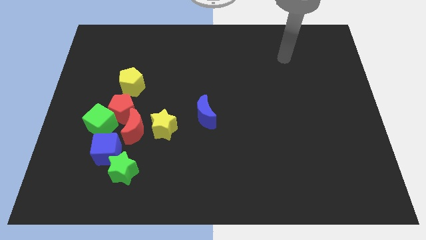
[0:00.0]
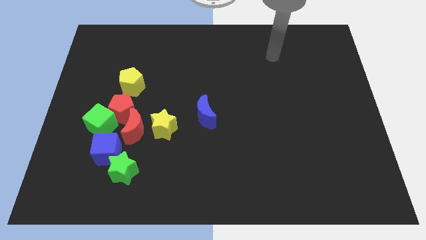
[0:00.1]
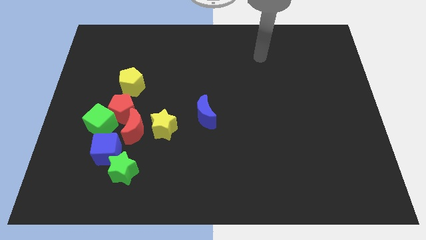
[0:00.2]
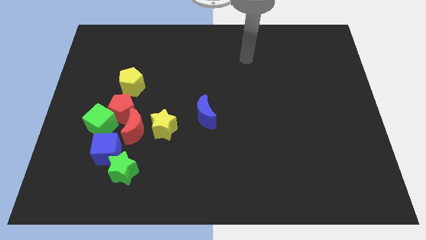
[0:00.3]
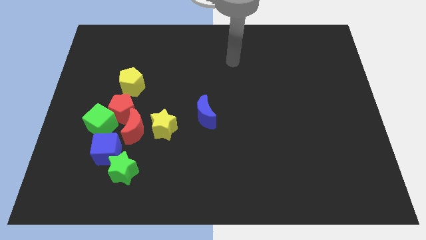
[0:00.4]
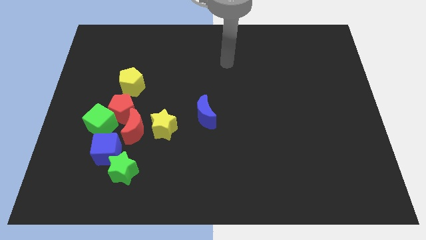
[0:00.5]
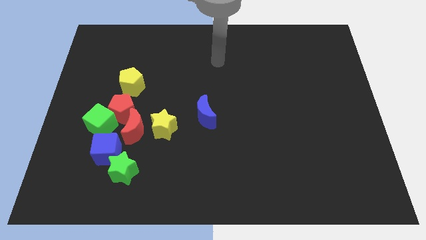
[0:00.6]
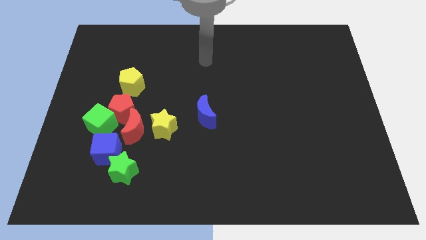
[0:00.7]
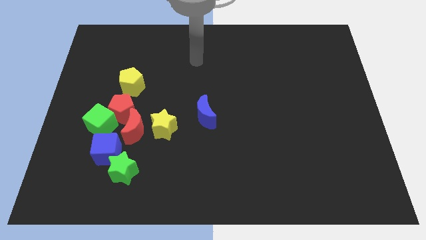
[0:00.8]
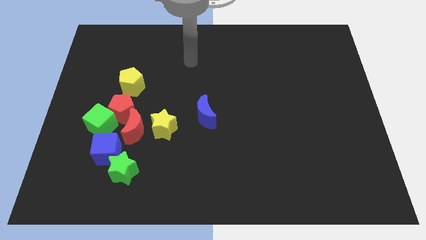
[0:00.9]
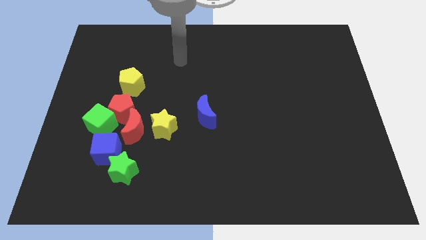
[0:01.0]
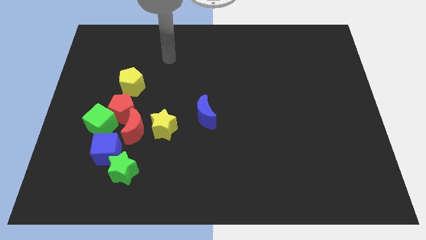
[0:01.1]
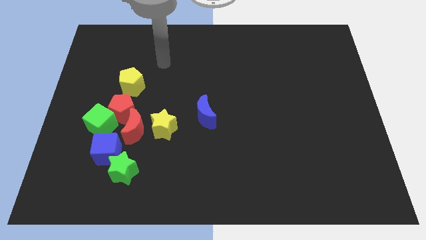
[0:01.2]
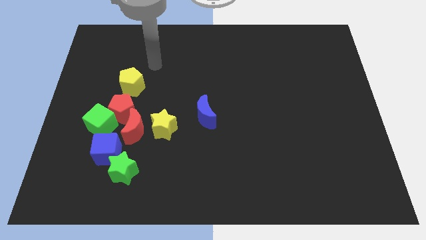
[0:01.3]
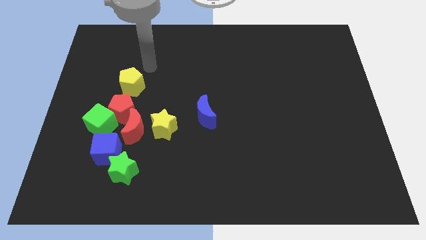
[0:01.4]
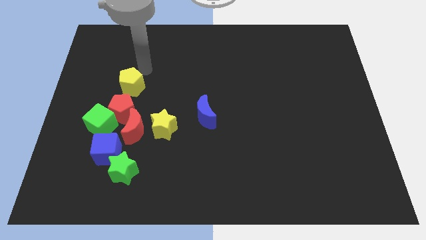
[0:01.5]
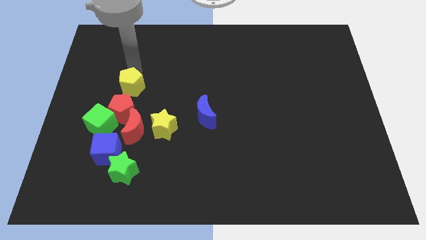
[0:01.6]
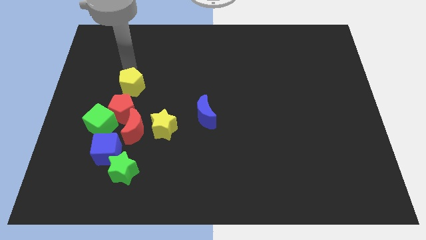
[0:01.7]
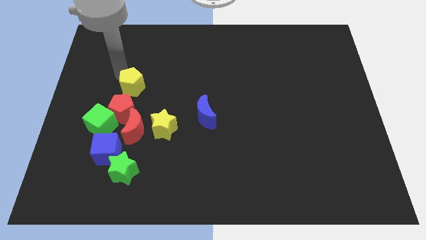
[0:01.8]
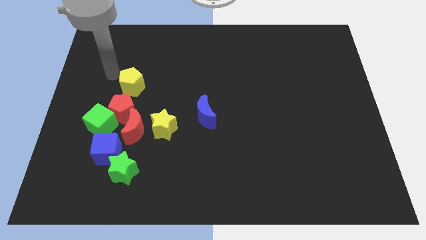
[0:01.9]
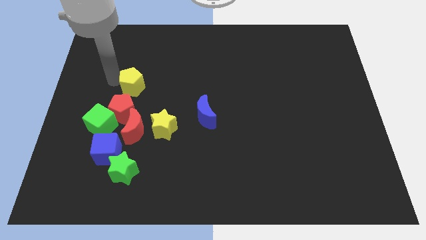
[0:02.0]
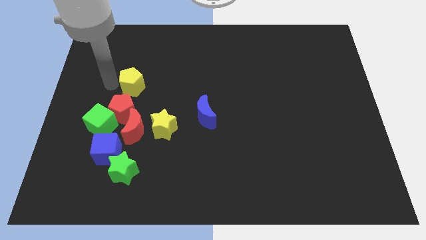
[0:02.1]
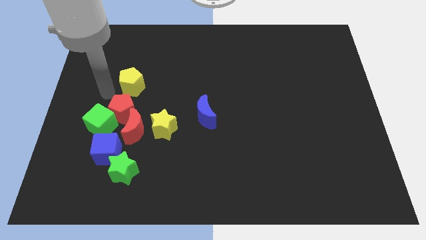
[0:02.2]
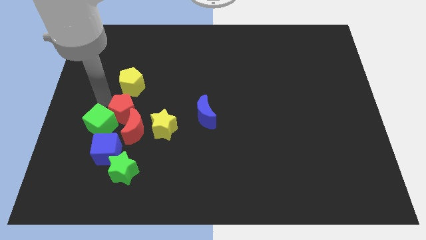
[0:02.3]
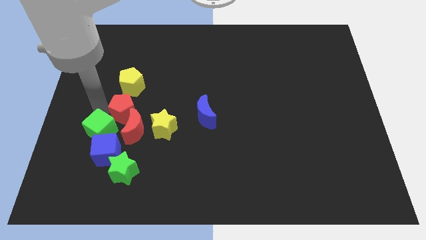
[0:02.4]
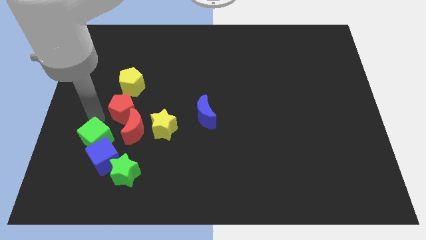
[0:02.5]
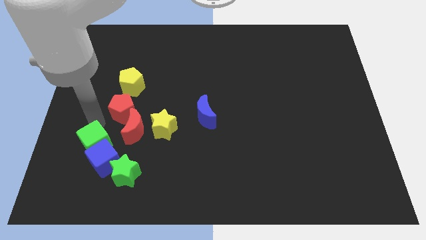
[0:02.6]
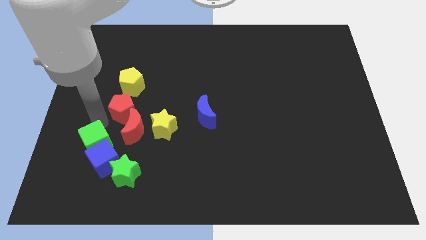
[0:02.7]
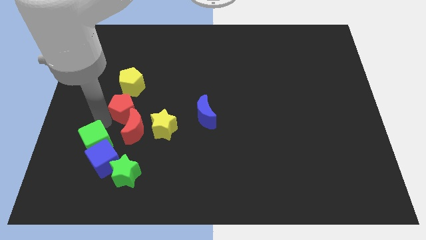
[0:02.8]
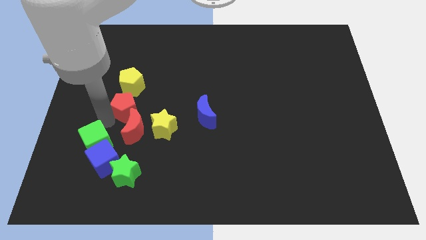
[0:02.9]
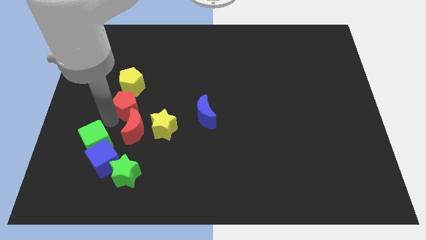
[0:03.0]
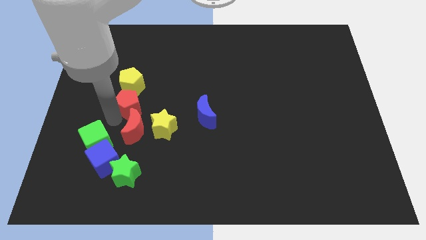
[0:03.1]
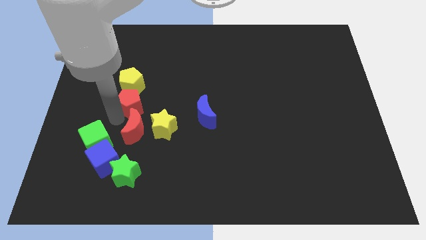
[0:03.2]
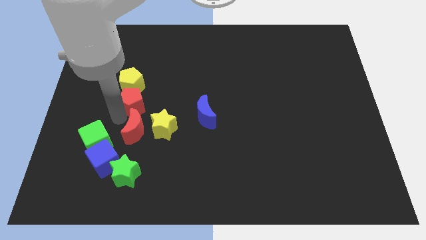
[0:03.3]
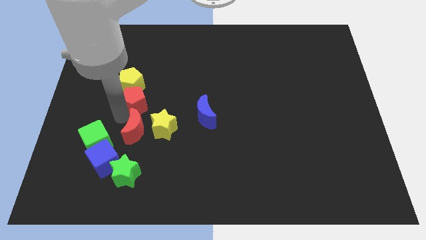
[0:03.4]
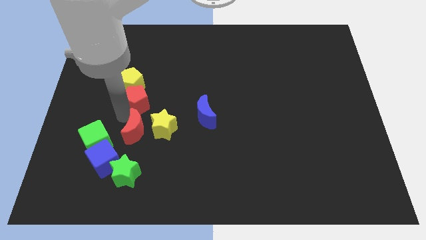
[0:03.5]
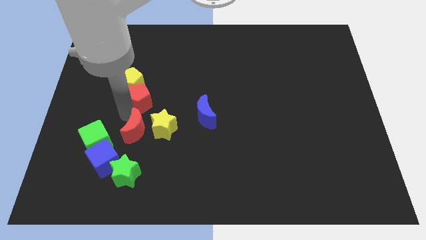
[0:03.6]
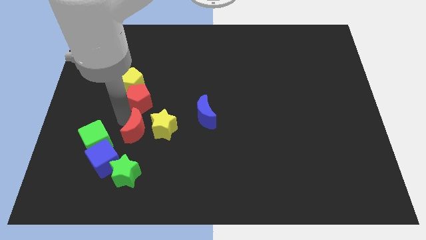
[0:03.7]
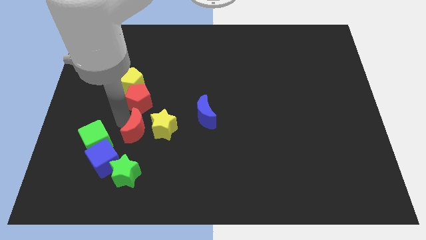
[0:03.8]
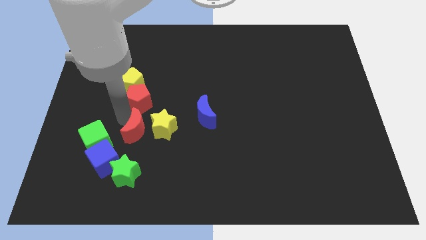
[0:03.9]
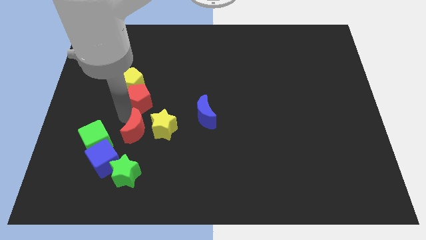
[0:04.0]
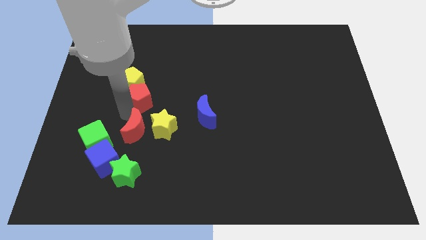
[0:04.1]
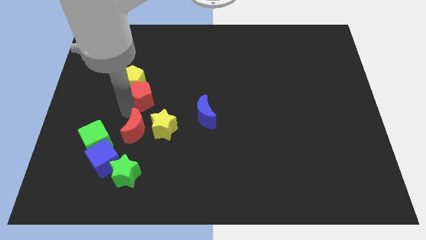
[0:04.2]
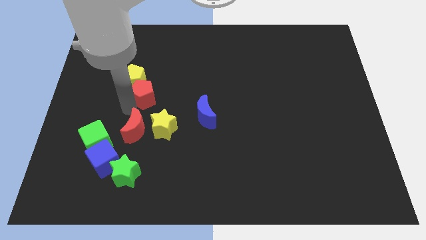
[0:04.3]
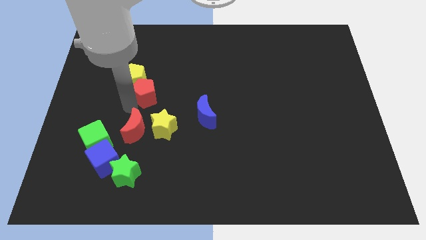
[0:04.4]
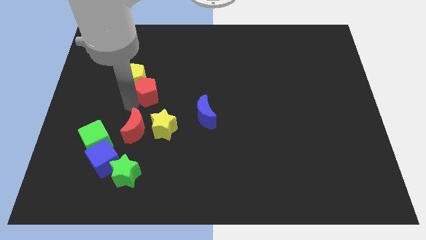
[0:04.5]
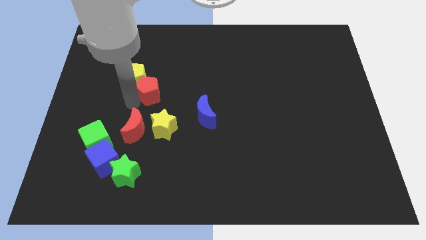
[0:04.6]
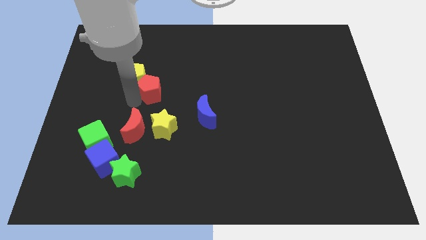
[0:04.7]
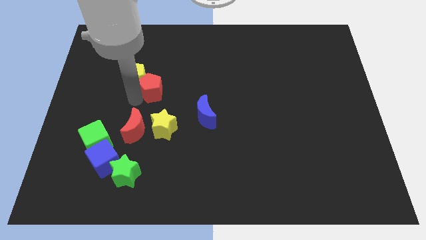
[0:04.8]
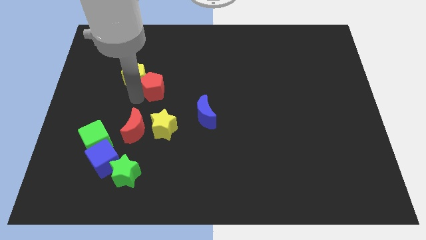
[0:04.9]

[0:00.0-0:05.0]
move the red pentagon away from the green cube, red moon, and yellow pentagon

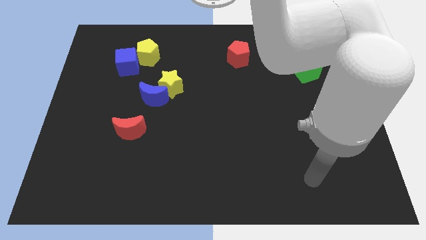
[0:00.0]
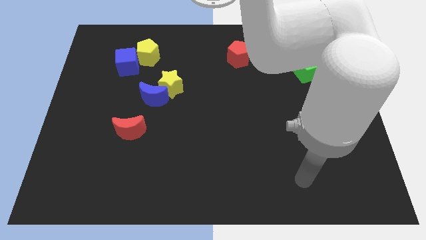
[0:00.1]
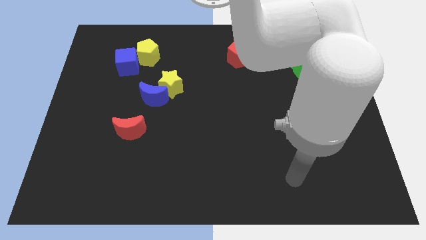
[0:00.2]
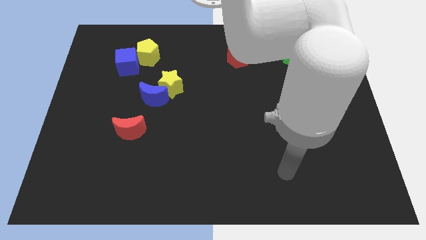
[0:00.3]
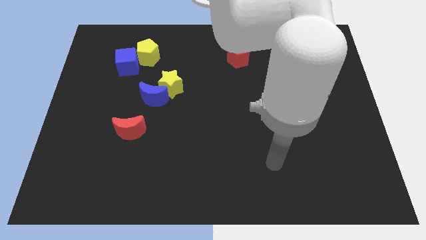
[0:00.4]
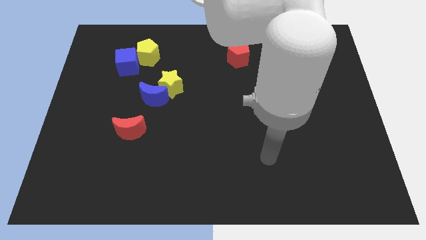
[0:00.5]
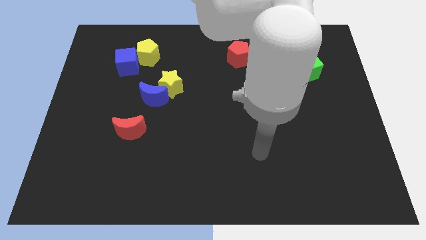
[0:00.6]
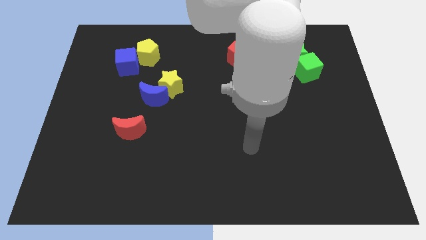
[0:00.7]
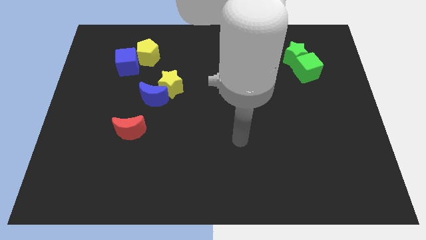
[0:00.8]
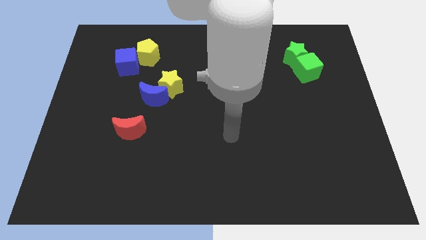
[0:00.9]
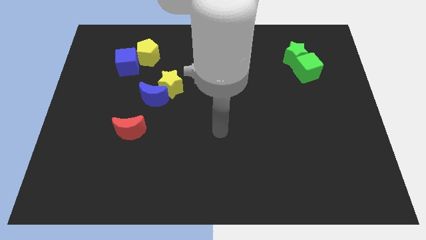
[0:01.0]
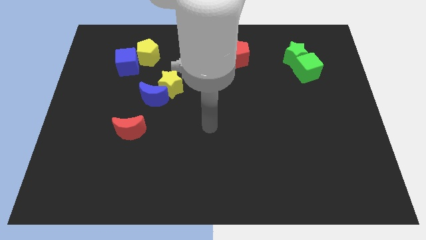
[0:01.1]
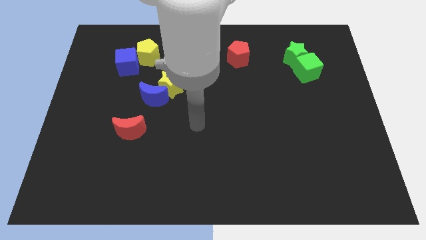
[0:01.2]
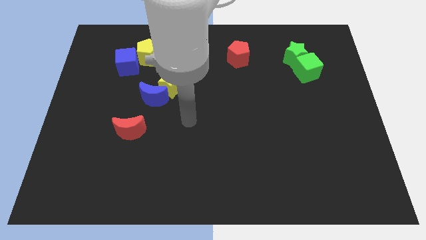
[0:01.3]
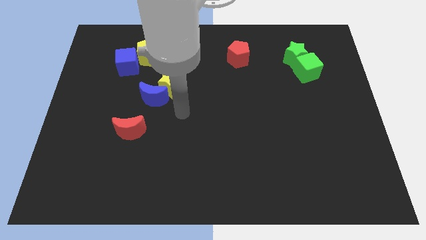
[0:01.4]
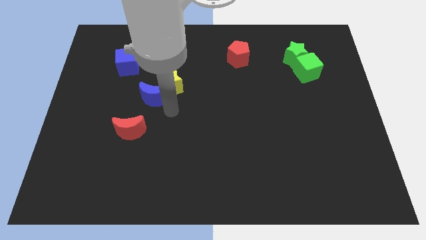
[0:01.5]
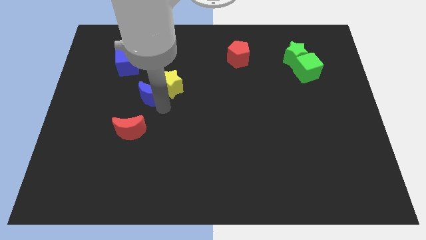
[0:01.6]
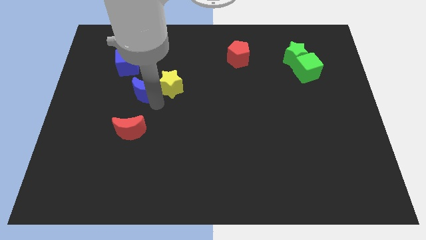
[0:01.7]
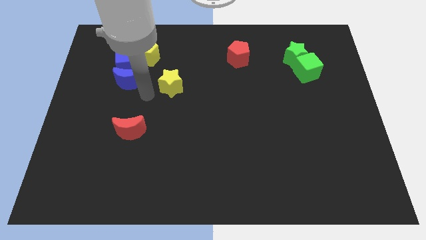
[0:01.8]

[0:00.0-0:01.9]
move the yellow star away from the blue moon

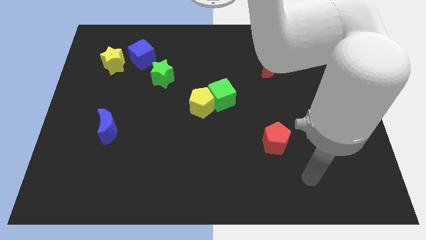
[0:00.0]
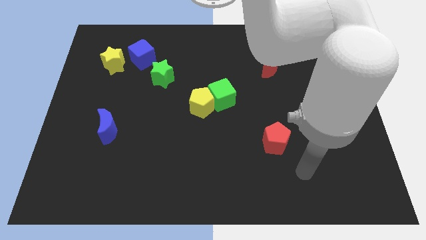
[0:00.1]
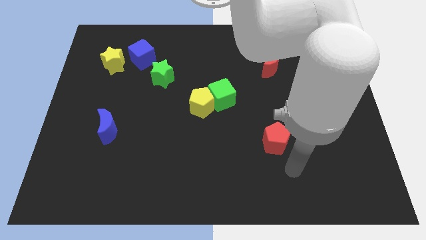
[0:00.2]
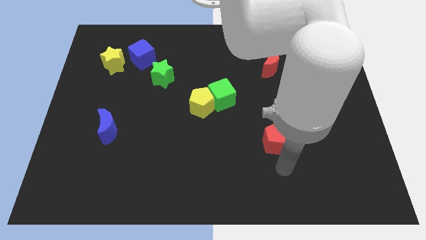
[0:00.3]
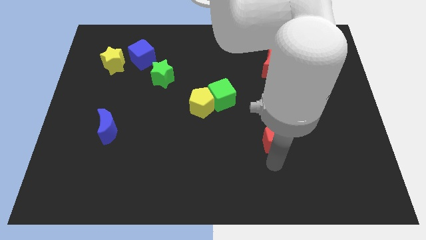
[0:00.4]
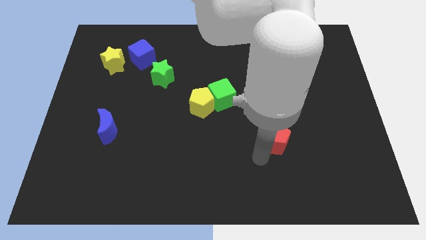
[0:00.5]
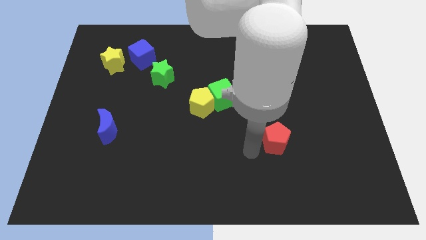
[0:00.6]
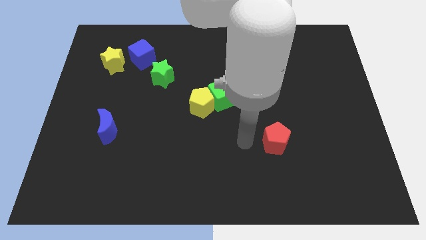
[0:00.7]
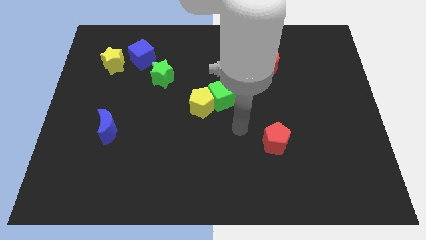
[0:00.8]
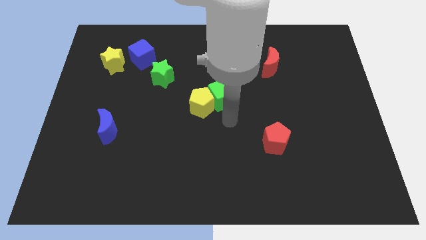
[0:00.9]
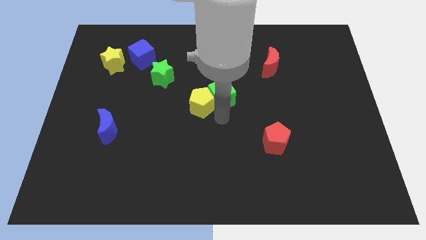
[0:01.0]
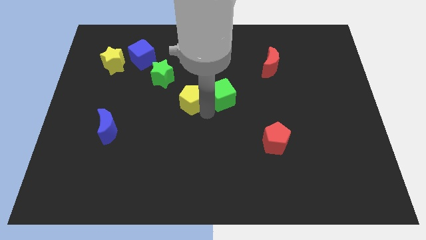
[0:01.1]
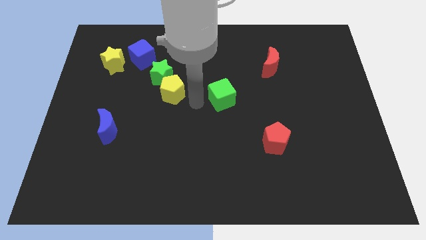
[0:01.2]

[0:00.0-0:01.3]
separate the green cube from the yellow pentagon

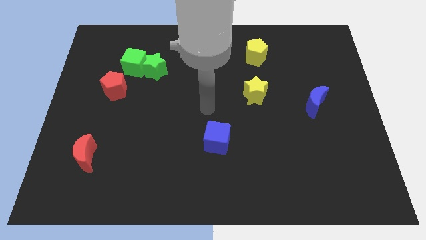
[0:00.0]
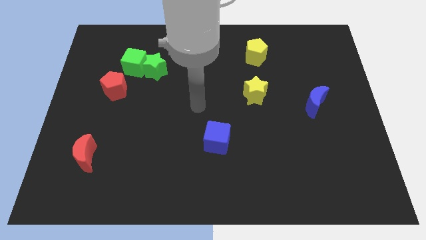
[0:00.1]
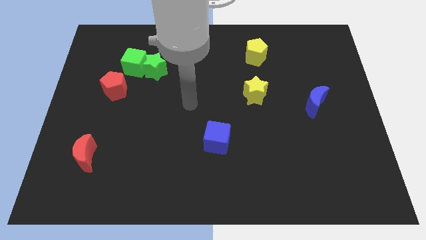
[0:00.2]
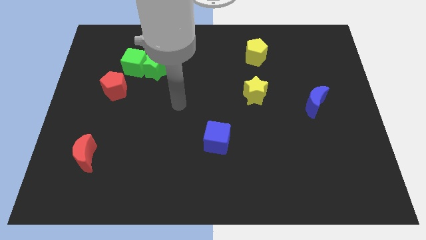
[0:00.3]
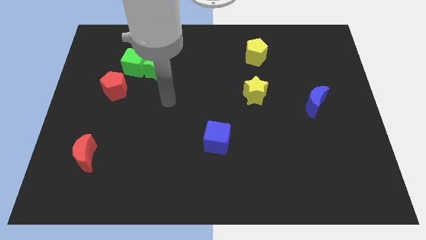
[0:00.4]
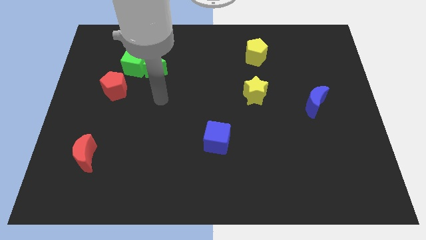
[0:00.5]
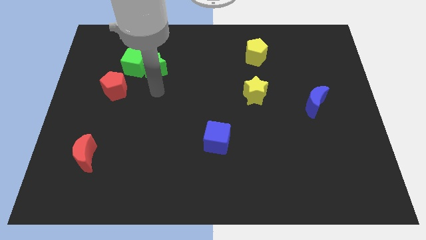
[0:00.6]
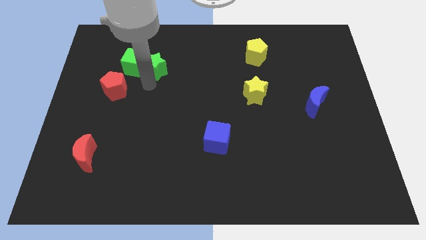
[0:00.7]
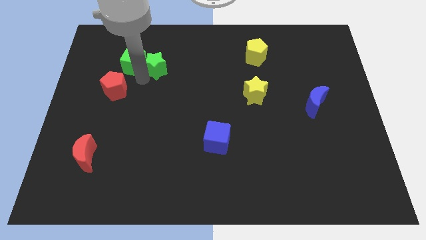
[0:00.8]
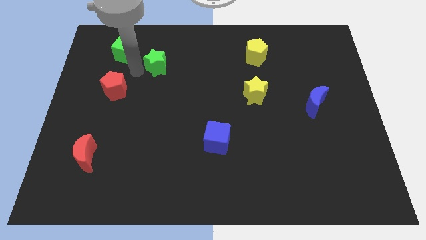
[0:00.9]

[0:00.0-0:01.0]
pull the green star apart from the green cube

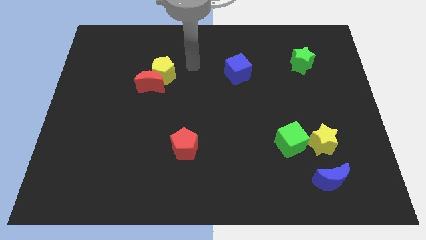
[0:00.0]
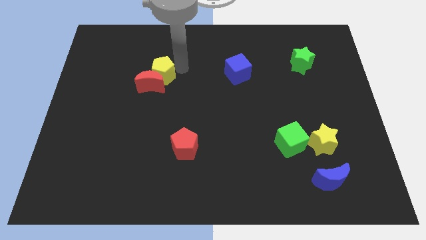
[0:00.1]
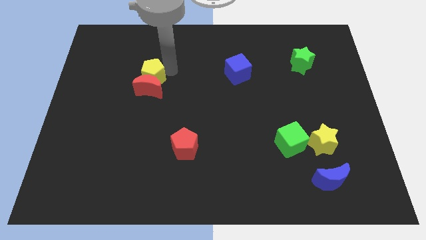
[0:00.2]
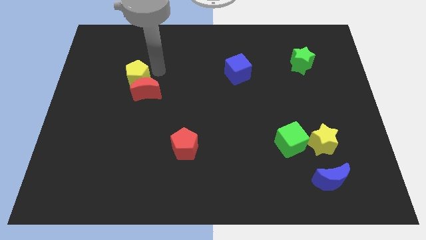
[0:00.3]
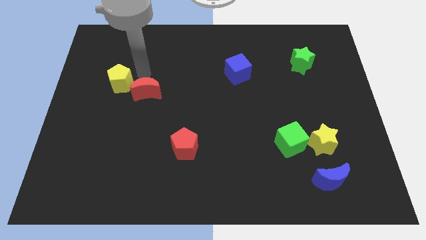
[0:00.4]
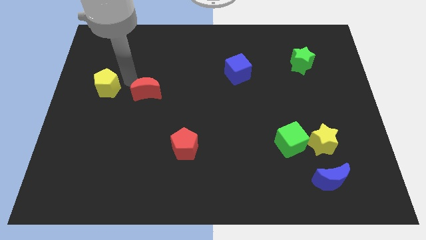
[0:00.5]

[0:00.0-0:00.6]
separate the red moon from the yellow pentagon
